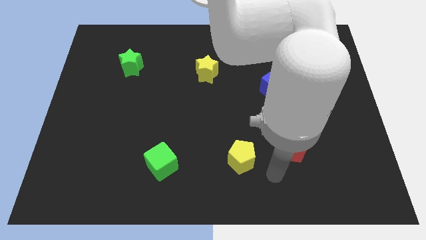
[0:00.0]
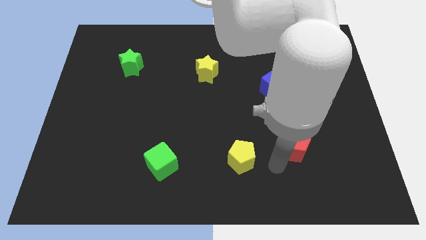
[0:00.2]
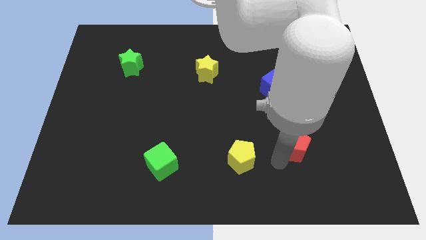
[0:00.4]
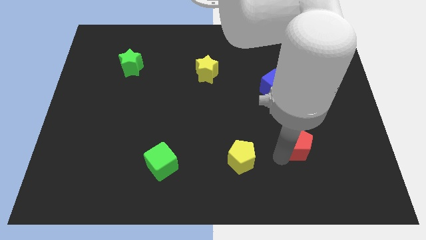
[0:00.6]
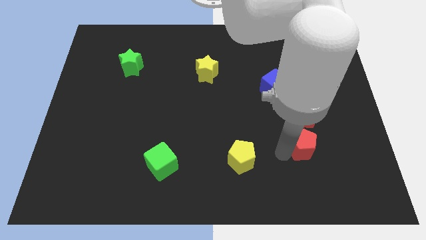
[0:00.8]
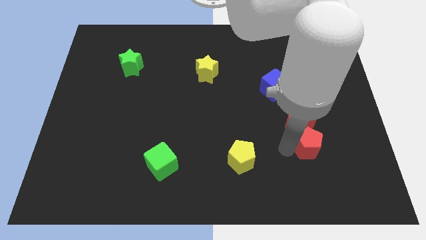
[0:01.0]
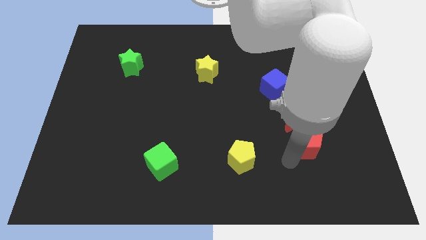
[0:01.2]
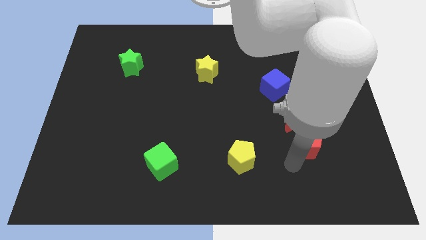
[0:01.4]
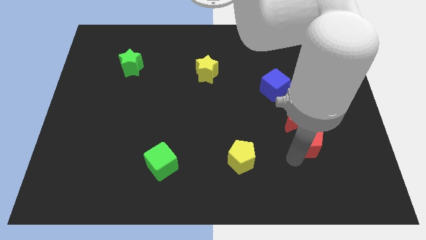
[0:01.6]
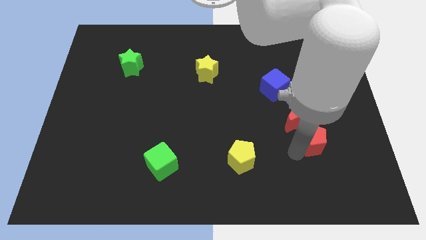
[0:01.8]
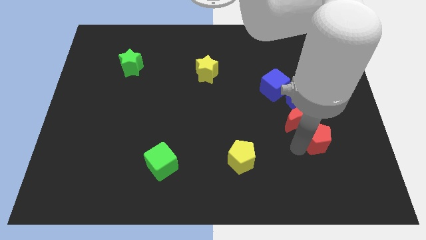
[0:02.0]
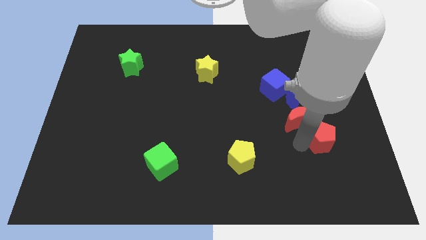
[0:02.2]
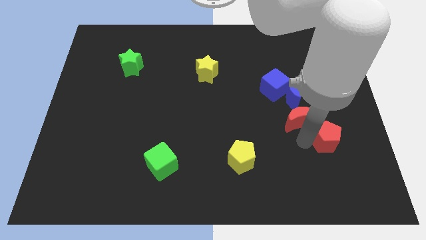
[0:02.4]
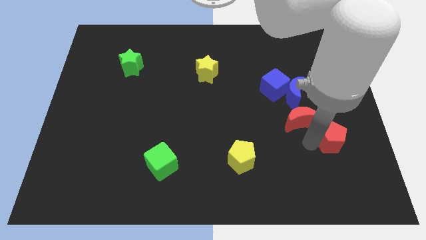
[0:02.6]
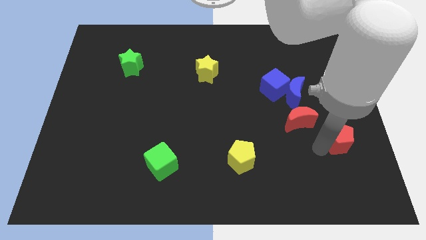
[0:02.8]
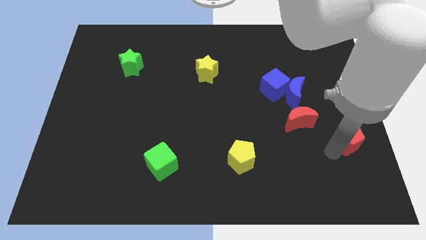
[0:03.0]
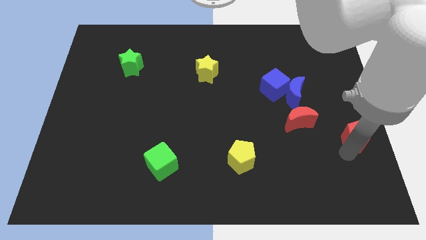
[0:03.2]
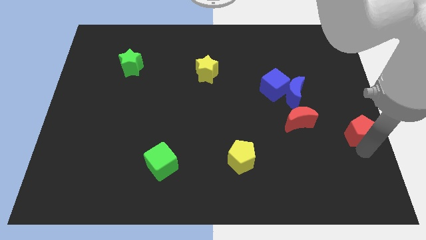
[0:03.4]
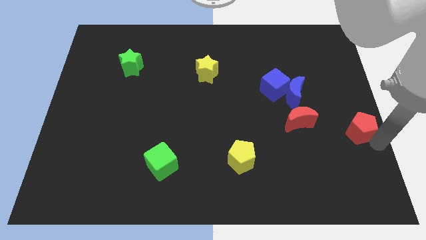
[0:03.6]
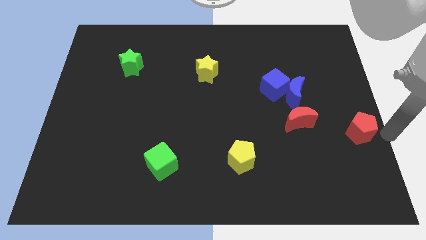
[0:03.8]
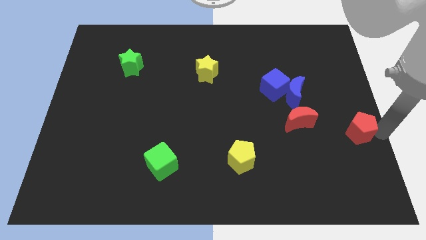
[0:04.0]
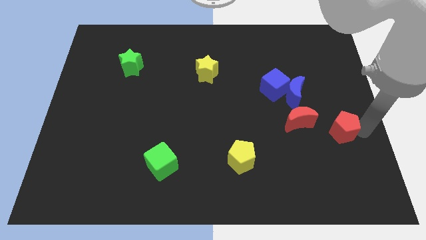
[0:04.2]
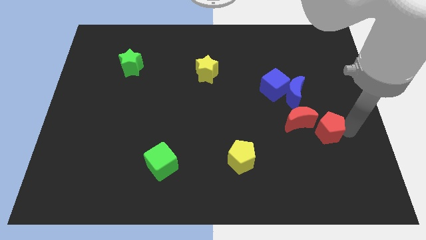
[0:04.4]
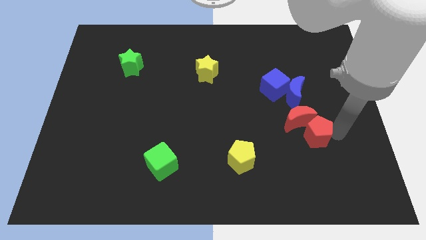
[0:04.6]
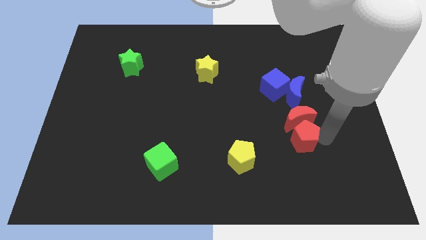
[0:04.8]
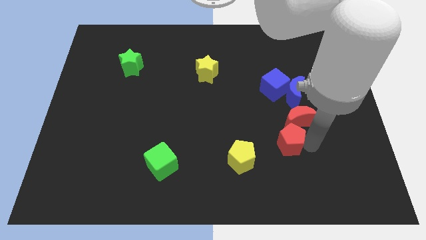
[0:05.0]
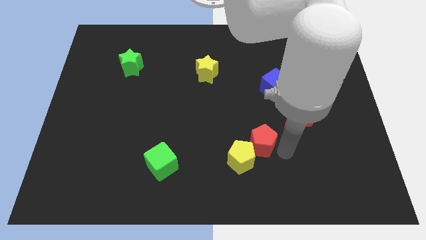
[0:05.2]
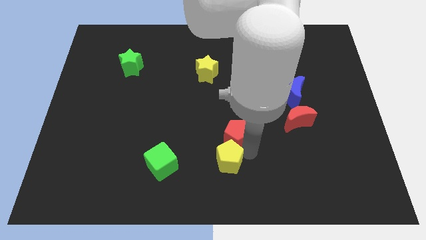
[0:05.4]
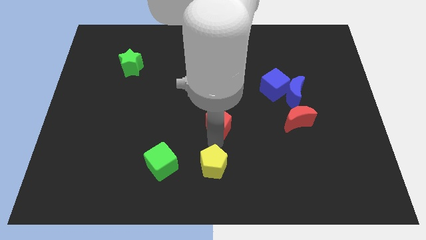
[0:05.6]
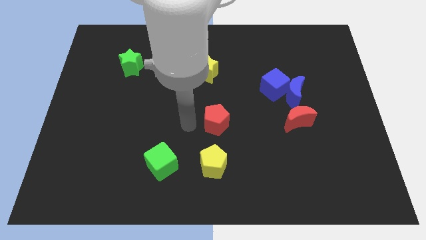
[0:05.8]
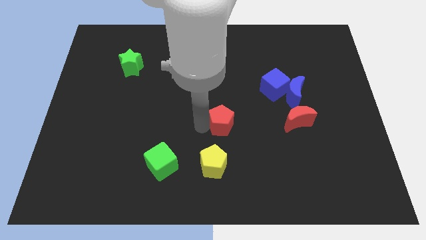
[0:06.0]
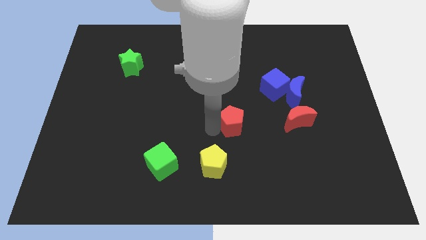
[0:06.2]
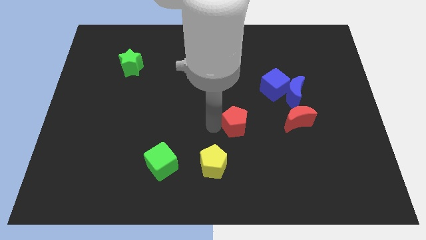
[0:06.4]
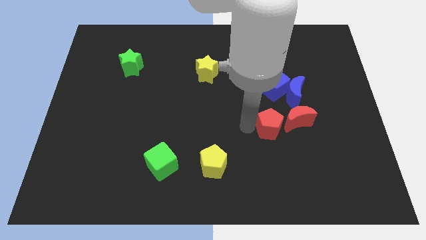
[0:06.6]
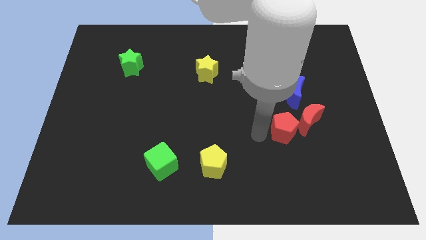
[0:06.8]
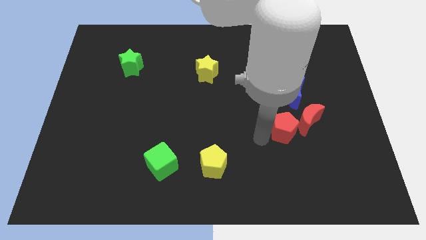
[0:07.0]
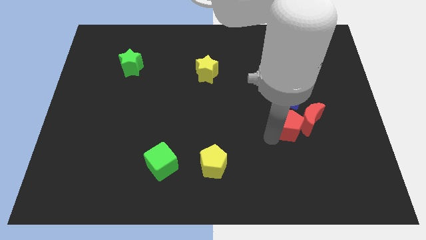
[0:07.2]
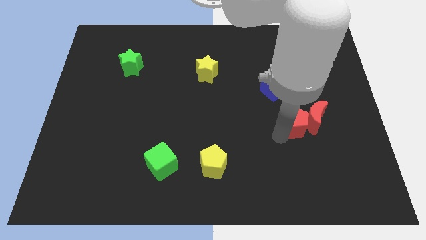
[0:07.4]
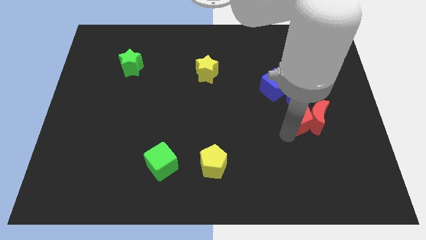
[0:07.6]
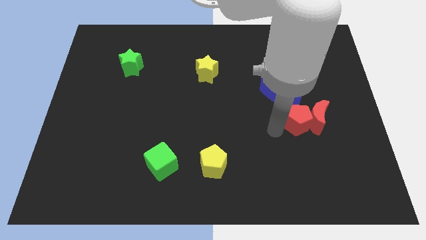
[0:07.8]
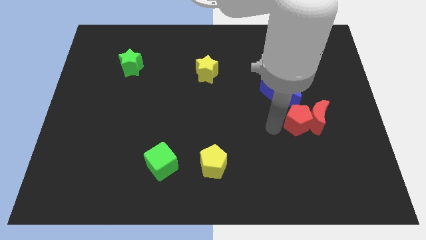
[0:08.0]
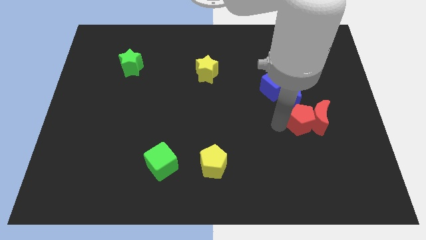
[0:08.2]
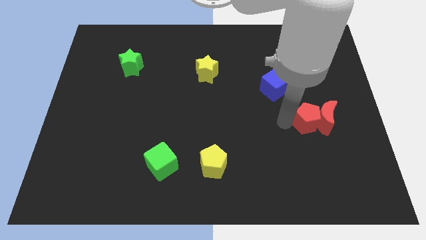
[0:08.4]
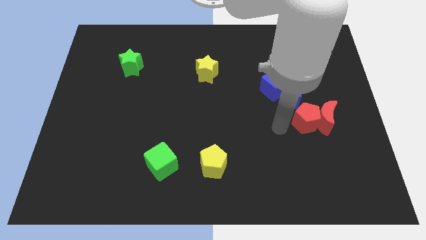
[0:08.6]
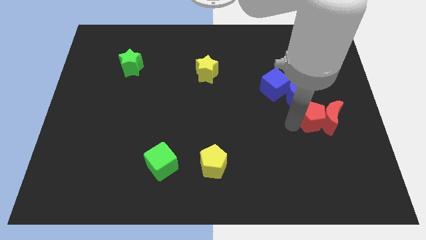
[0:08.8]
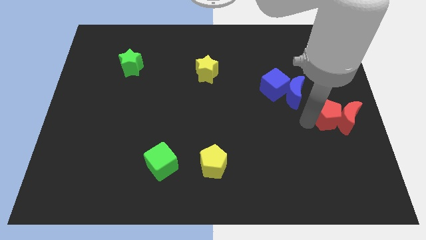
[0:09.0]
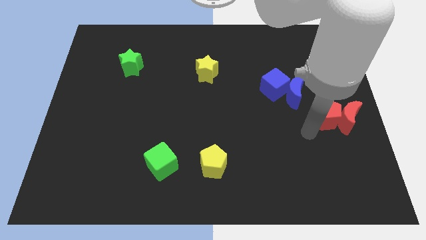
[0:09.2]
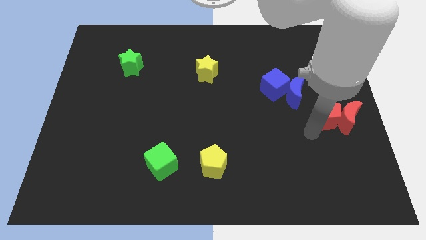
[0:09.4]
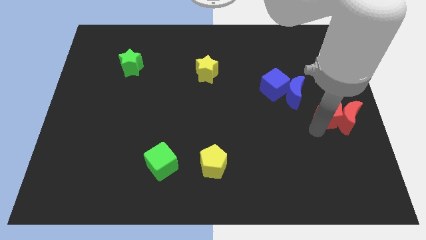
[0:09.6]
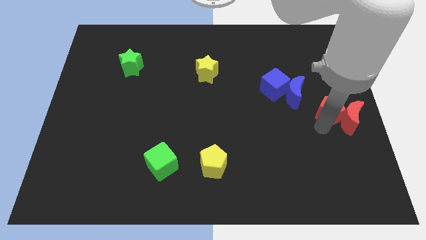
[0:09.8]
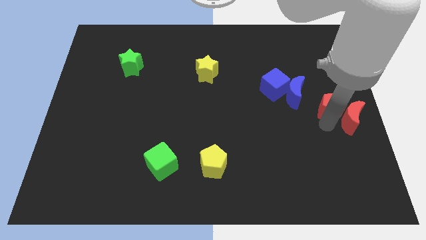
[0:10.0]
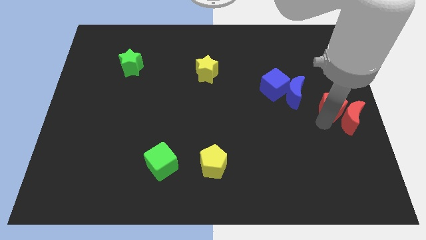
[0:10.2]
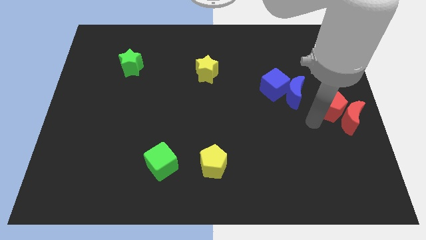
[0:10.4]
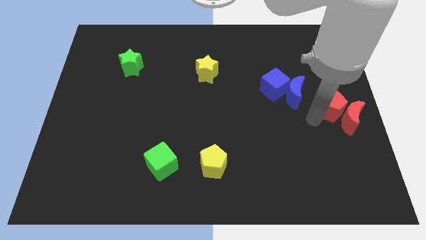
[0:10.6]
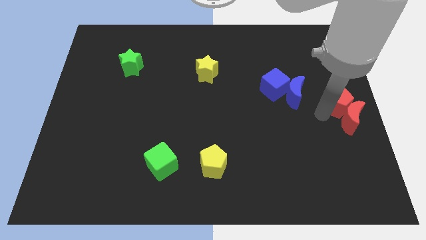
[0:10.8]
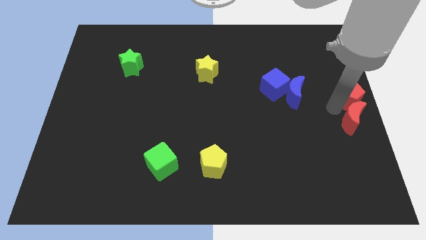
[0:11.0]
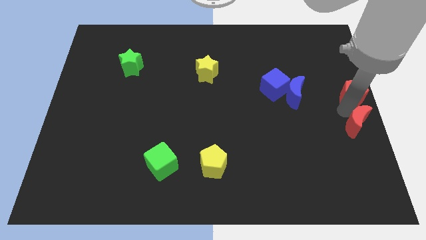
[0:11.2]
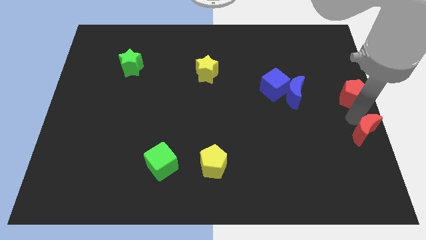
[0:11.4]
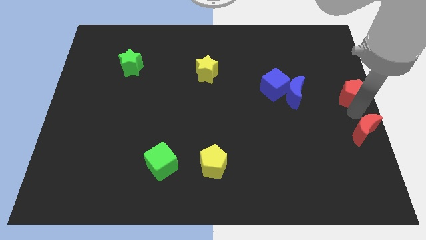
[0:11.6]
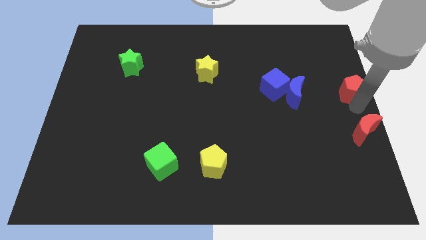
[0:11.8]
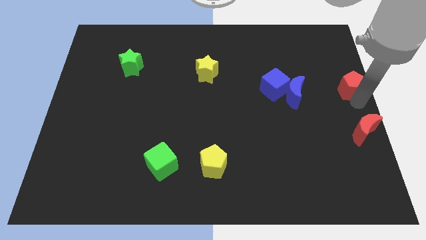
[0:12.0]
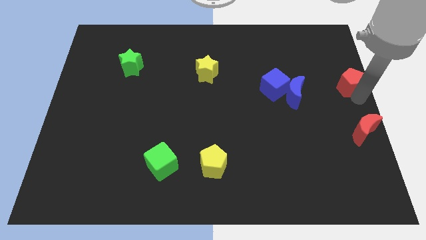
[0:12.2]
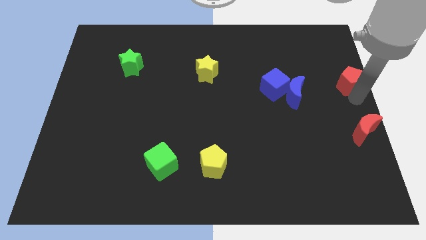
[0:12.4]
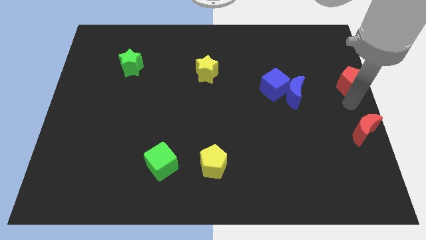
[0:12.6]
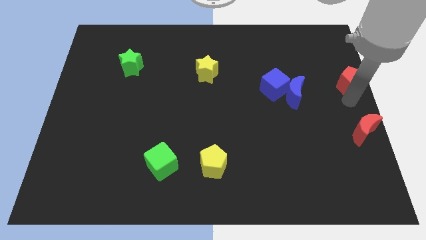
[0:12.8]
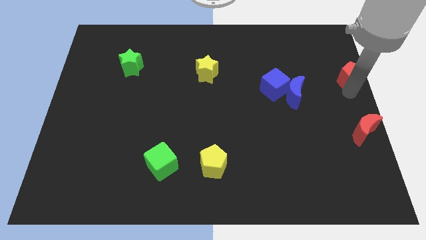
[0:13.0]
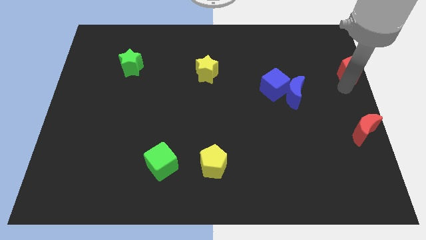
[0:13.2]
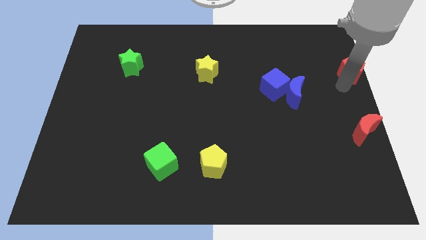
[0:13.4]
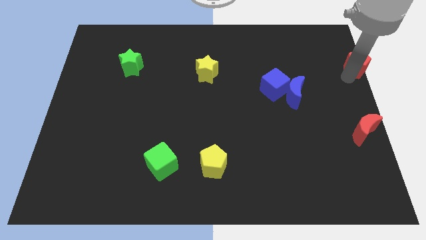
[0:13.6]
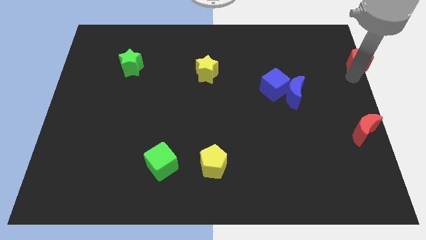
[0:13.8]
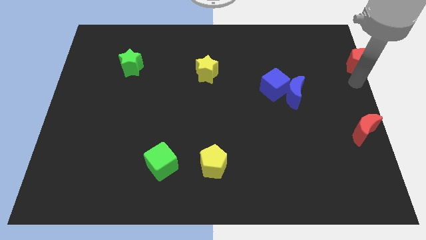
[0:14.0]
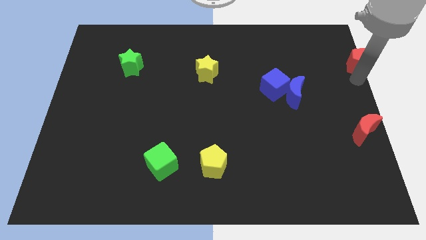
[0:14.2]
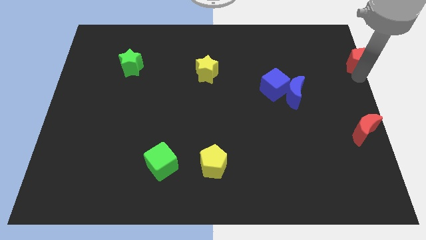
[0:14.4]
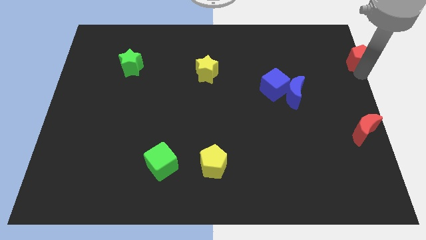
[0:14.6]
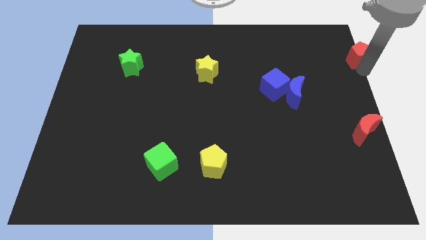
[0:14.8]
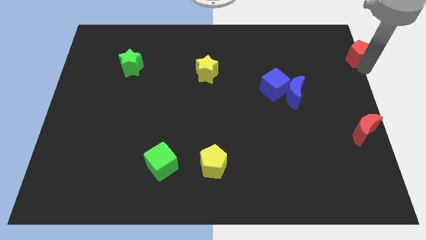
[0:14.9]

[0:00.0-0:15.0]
push the red pentagon to the top right of the board
